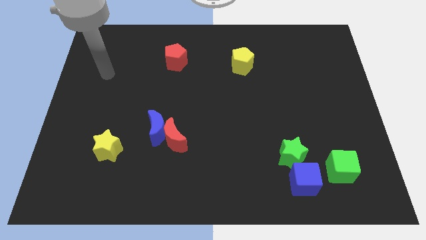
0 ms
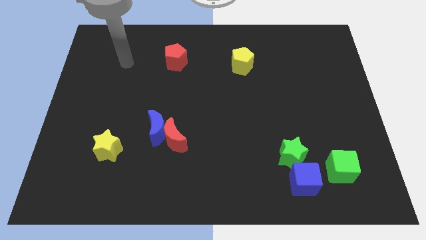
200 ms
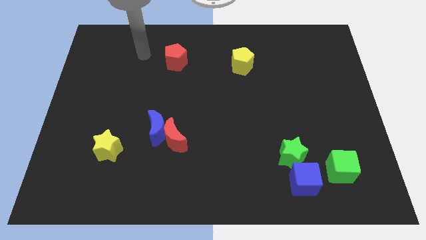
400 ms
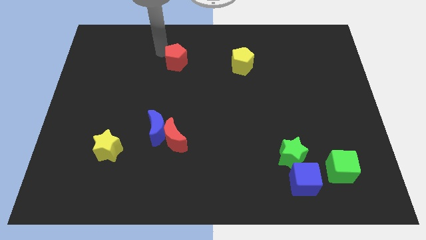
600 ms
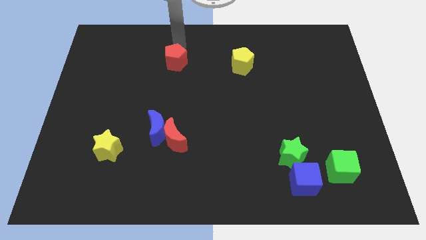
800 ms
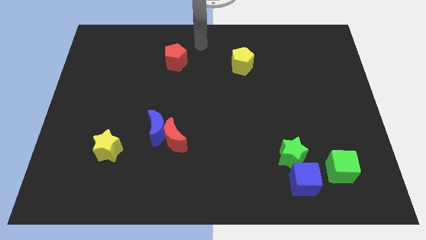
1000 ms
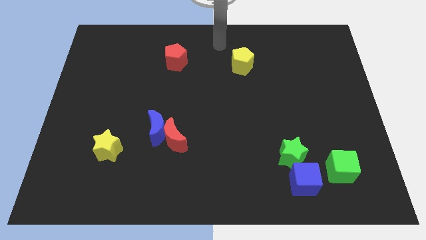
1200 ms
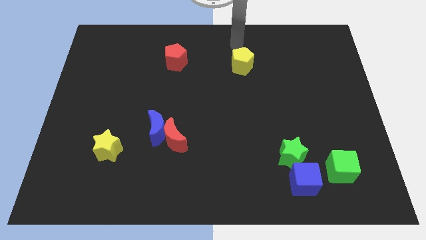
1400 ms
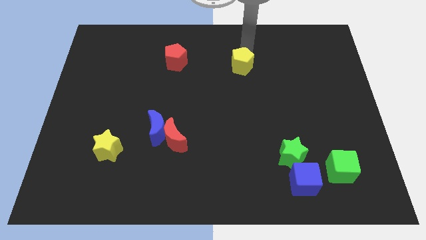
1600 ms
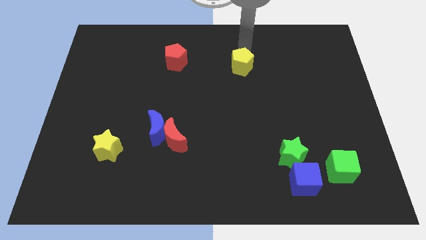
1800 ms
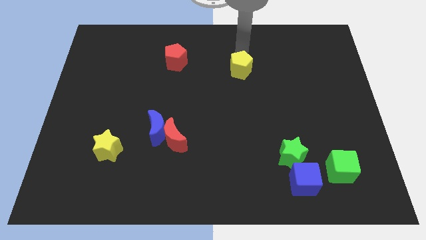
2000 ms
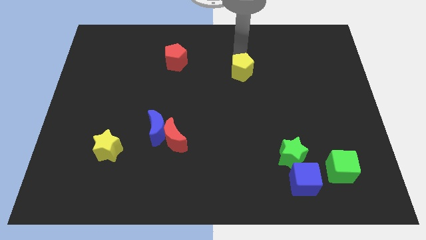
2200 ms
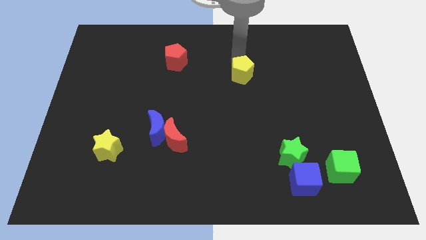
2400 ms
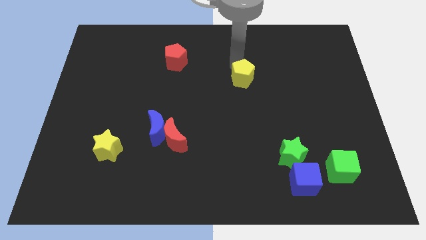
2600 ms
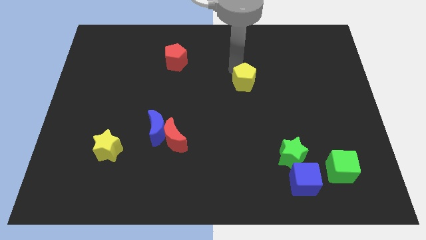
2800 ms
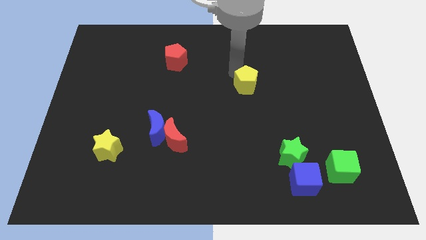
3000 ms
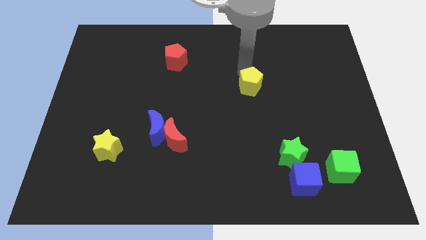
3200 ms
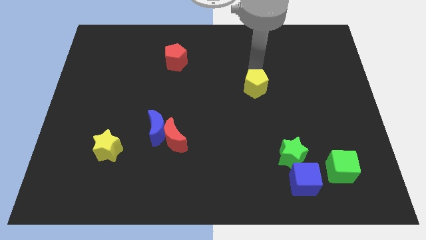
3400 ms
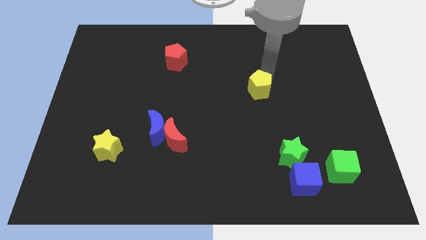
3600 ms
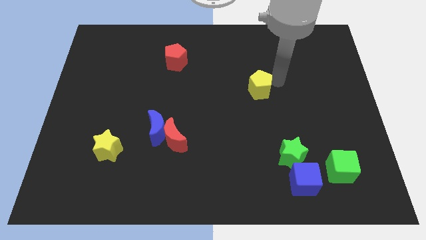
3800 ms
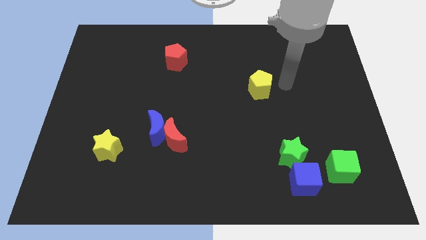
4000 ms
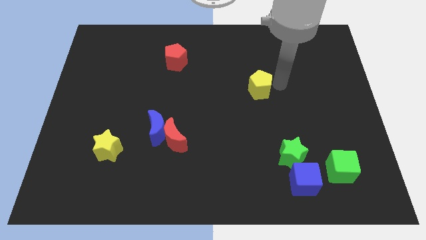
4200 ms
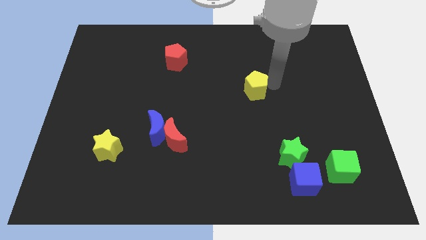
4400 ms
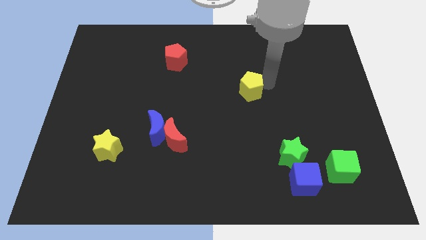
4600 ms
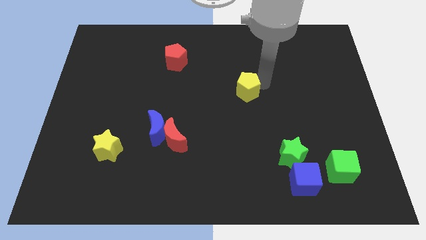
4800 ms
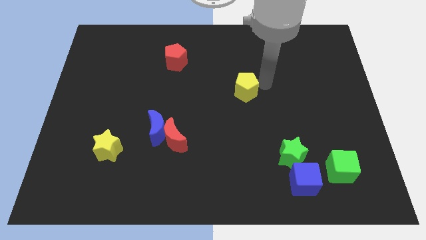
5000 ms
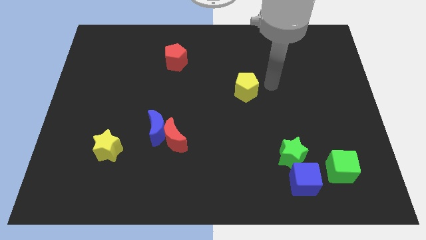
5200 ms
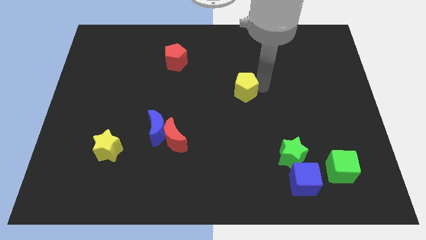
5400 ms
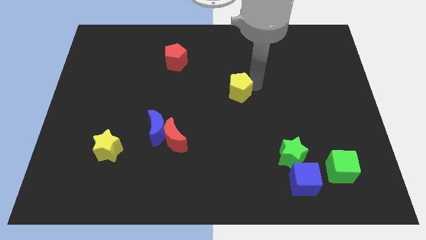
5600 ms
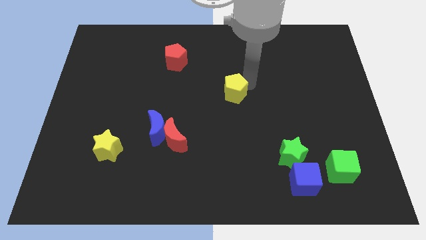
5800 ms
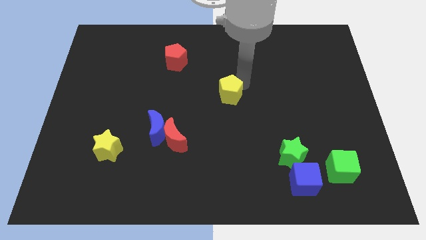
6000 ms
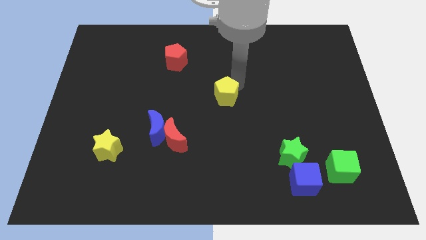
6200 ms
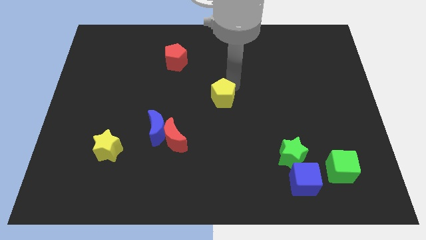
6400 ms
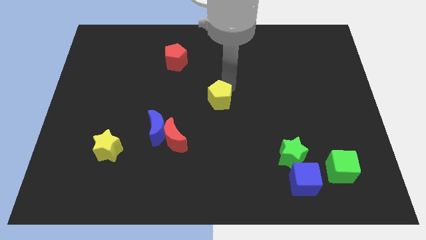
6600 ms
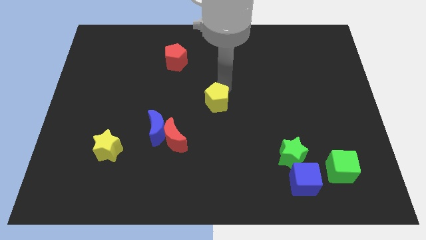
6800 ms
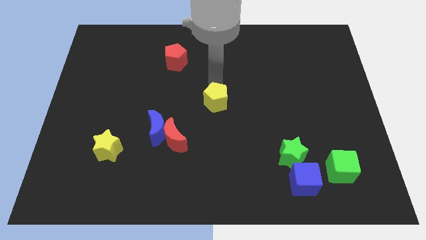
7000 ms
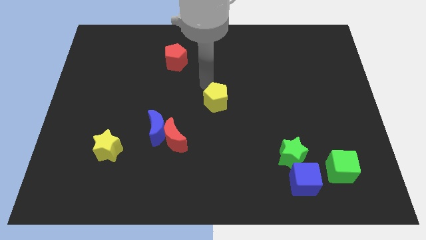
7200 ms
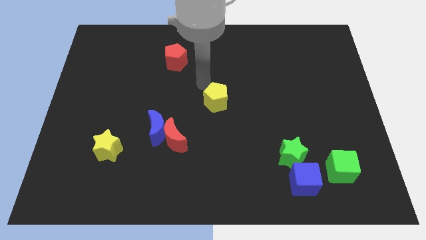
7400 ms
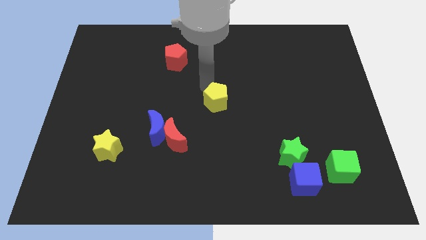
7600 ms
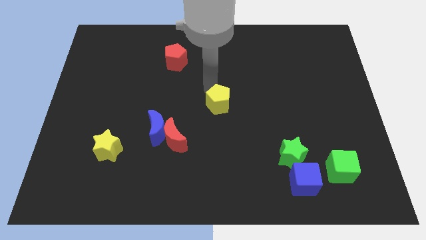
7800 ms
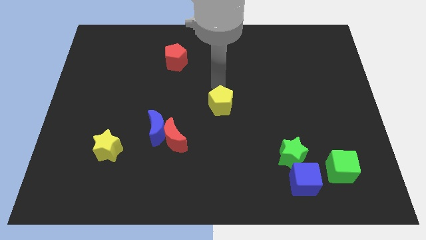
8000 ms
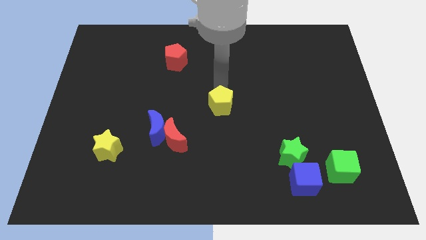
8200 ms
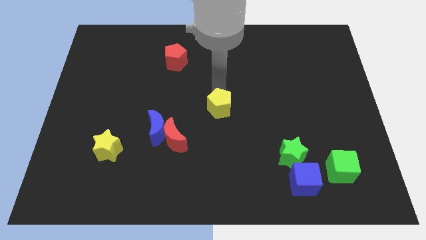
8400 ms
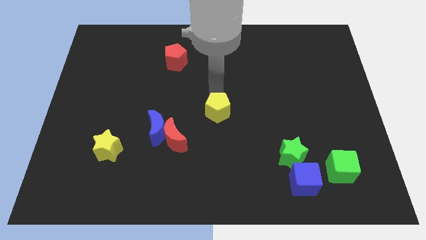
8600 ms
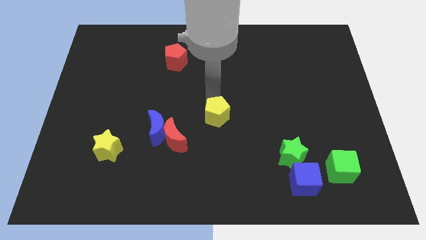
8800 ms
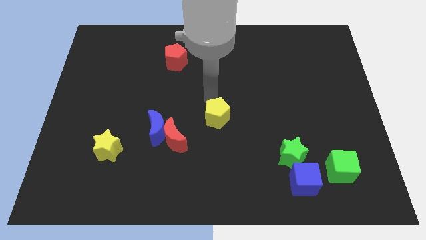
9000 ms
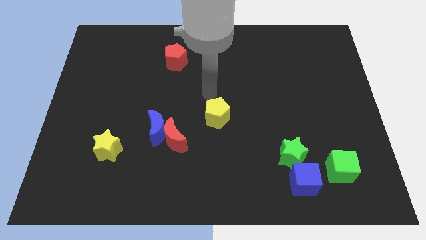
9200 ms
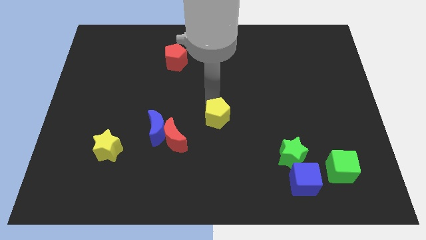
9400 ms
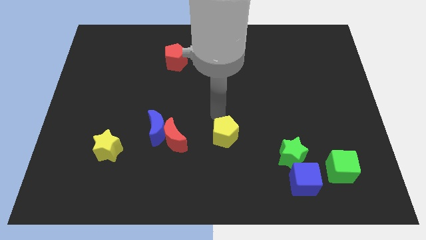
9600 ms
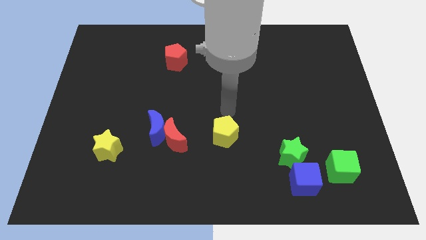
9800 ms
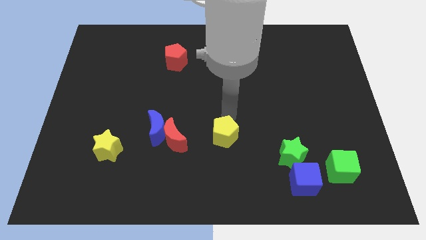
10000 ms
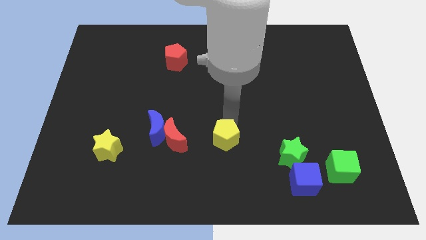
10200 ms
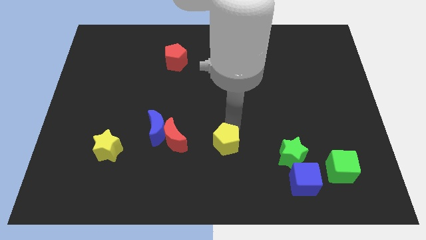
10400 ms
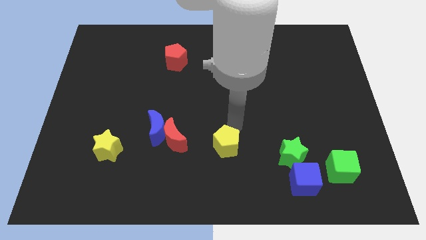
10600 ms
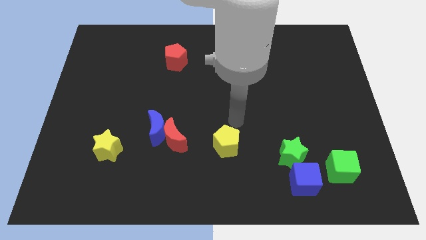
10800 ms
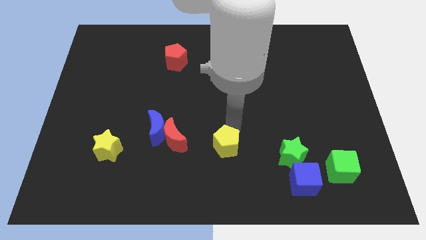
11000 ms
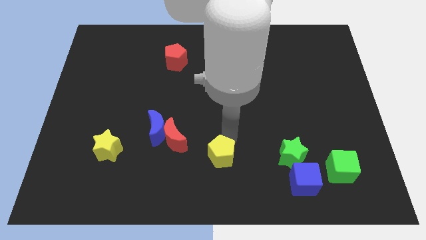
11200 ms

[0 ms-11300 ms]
slide the yellow pentagon to the bottom side

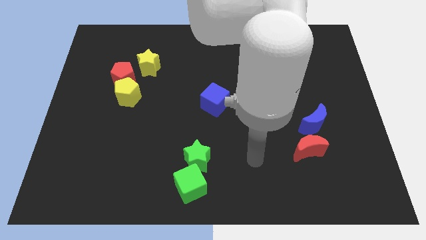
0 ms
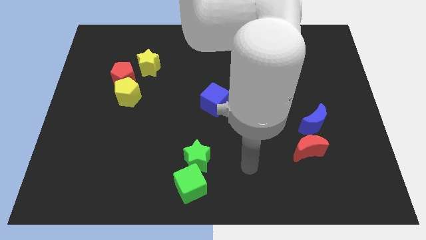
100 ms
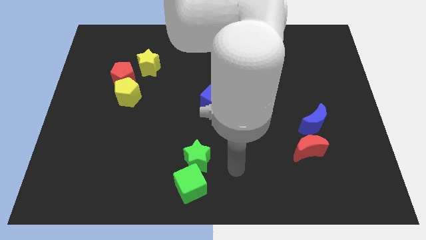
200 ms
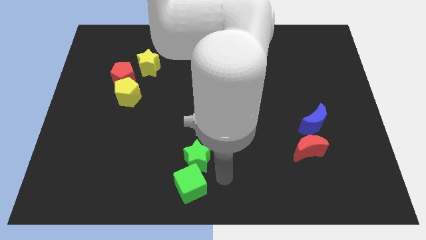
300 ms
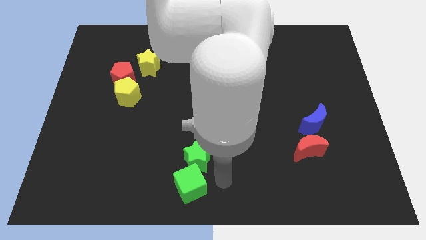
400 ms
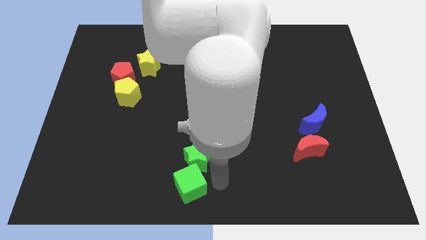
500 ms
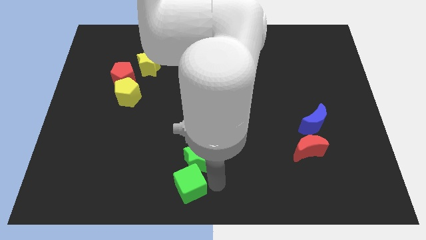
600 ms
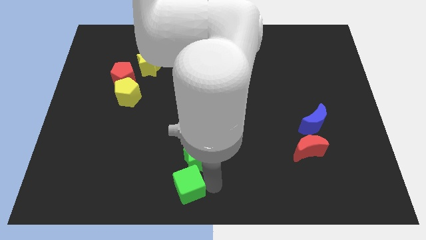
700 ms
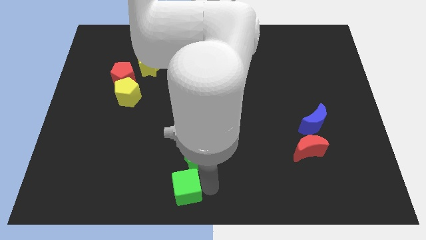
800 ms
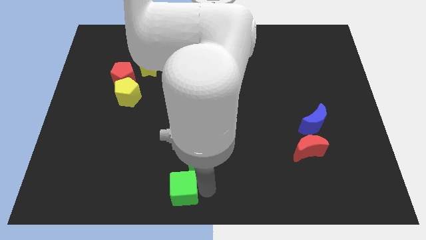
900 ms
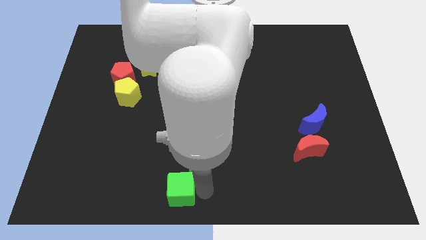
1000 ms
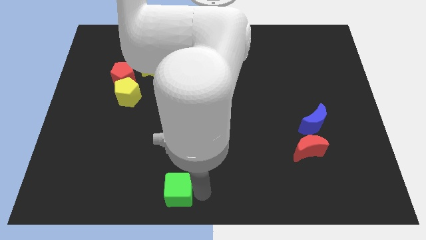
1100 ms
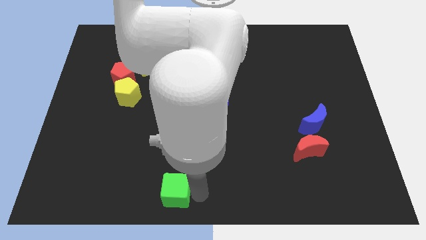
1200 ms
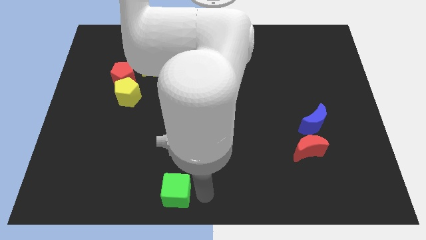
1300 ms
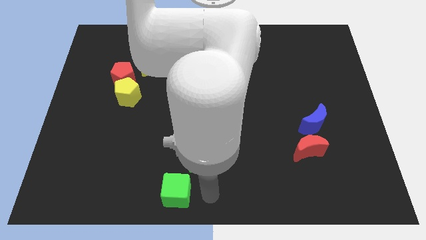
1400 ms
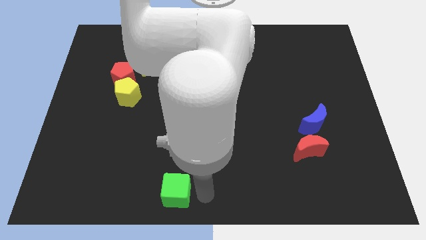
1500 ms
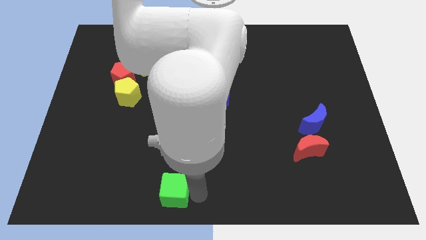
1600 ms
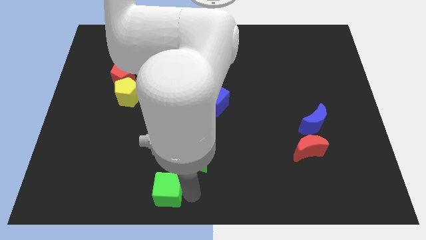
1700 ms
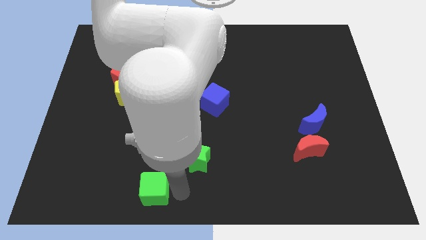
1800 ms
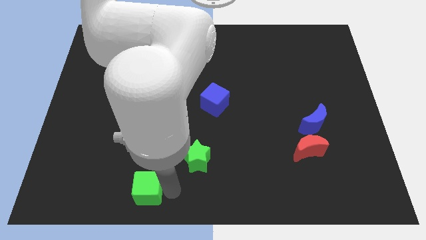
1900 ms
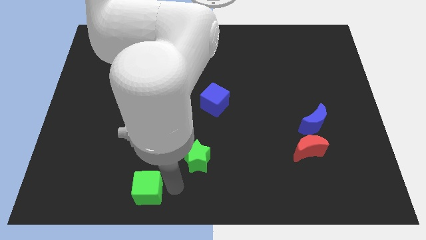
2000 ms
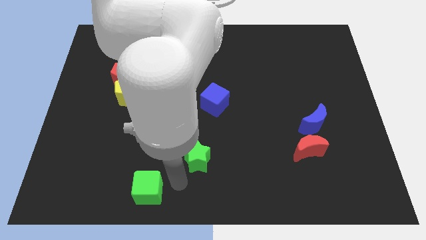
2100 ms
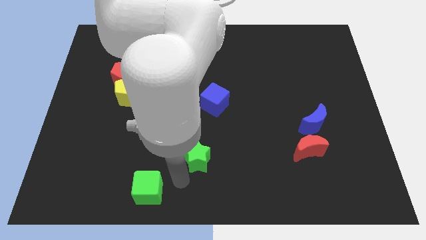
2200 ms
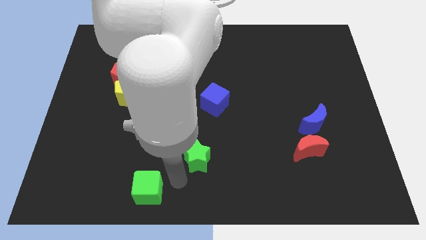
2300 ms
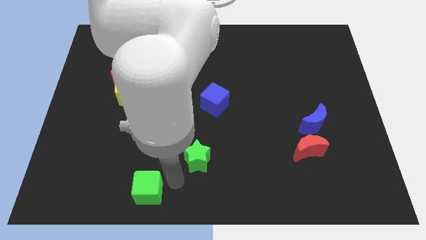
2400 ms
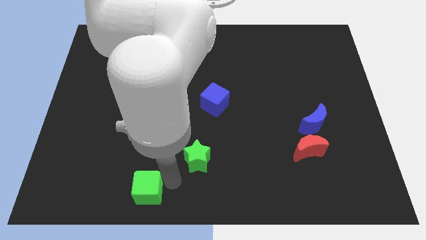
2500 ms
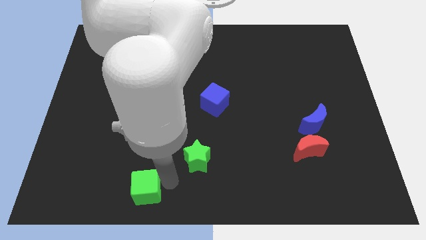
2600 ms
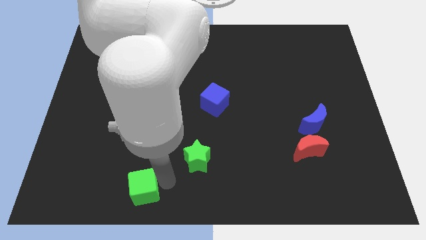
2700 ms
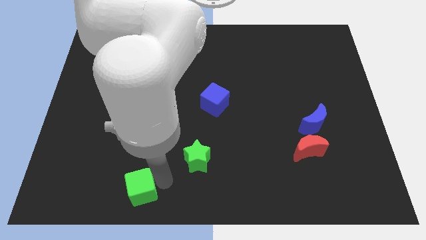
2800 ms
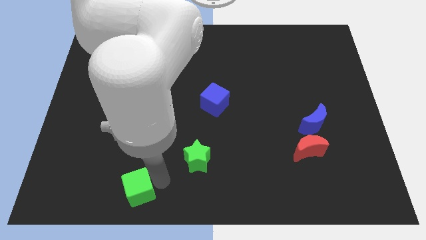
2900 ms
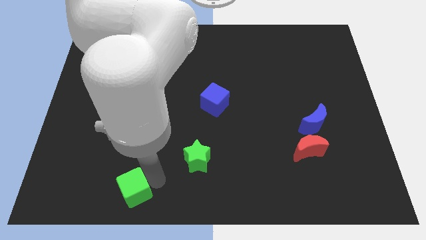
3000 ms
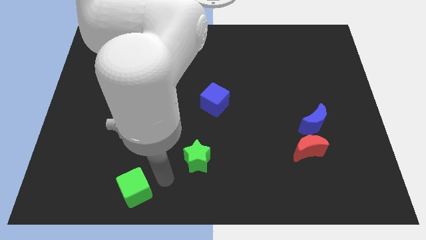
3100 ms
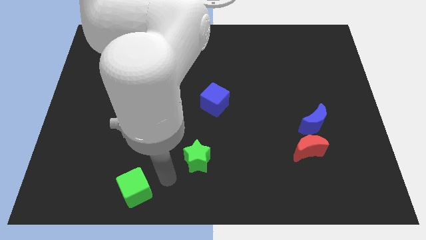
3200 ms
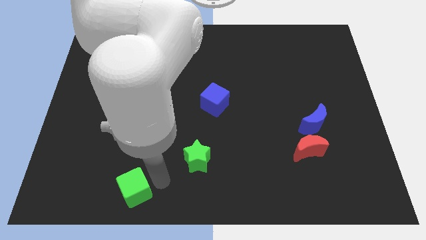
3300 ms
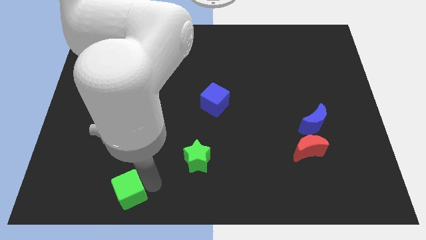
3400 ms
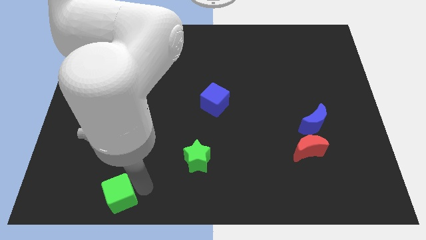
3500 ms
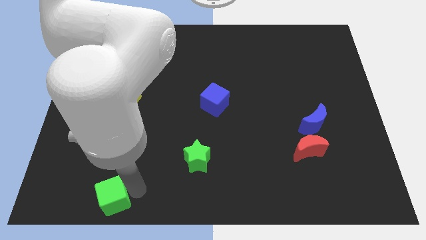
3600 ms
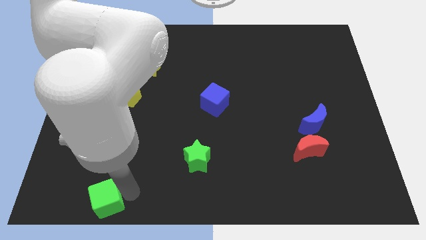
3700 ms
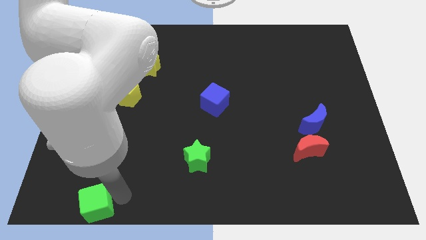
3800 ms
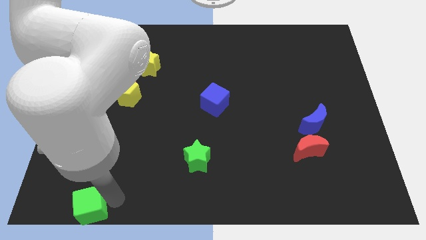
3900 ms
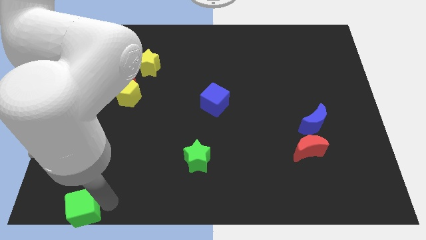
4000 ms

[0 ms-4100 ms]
move the green cube to the bottom left
